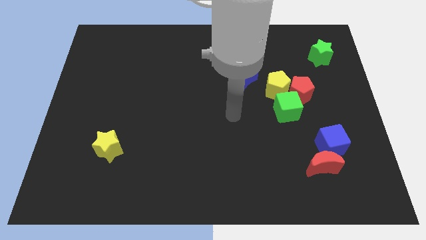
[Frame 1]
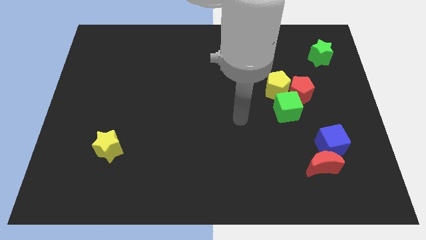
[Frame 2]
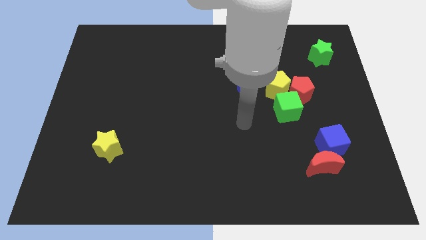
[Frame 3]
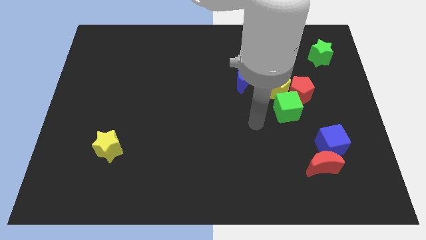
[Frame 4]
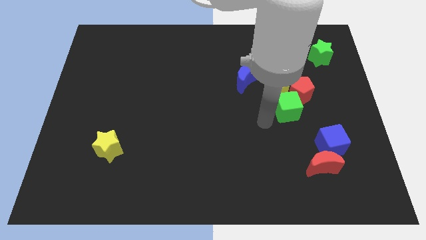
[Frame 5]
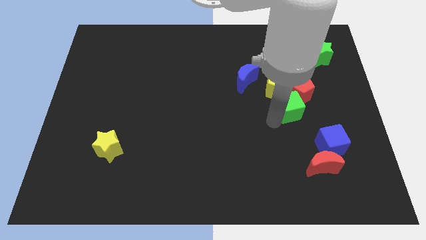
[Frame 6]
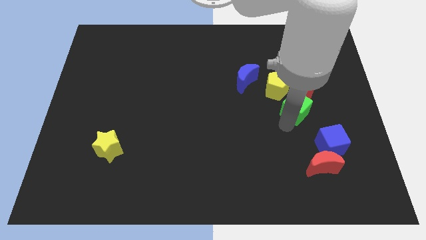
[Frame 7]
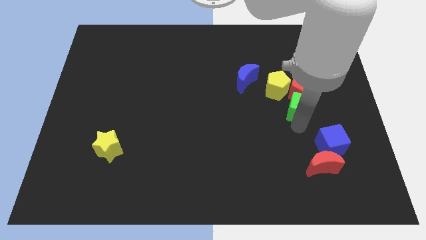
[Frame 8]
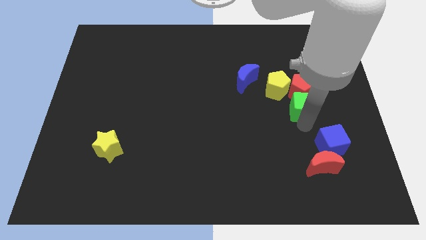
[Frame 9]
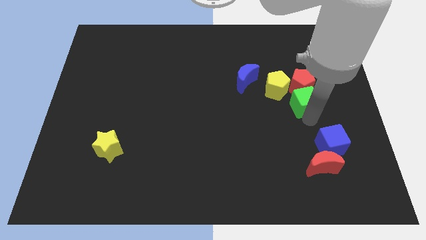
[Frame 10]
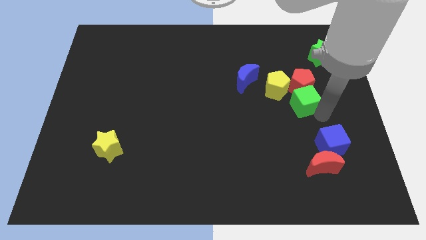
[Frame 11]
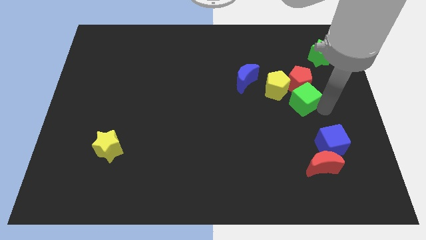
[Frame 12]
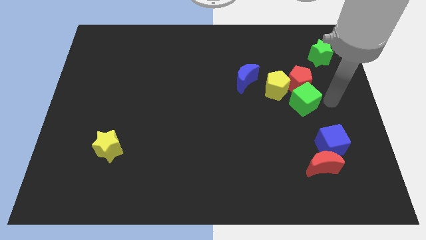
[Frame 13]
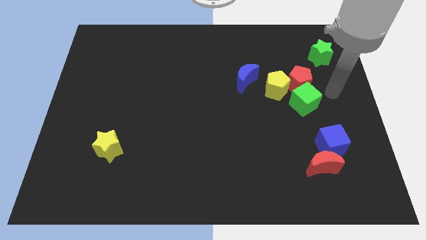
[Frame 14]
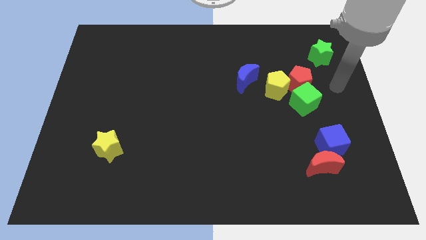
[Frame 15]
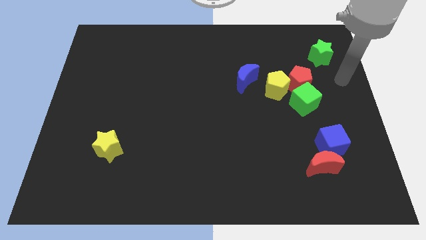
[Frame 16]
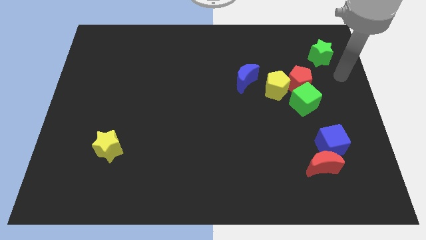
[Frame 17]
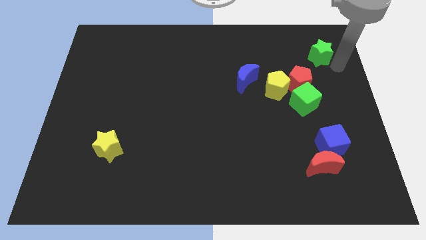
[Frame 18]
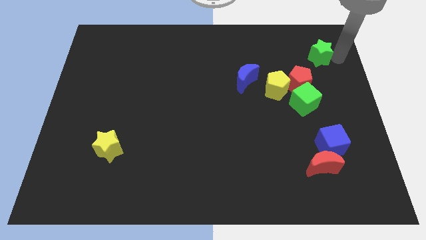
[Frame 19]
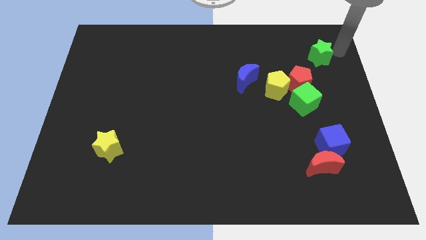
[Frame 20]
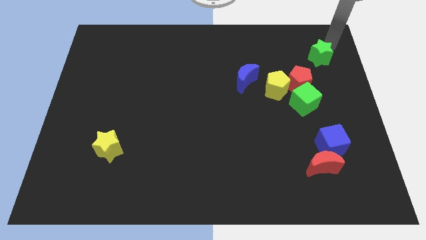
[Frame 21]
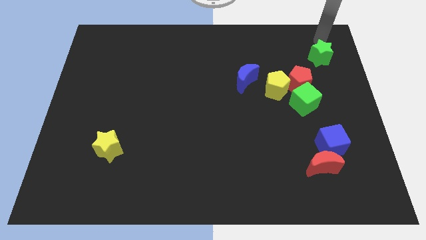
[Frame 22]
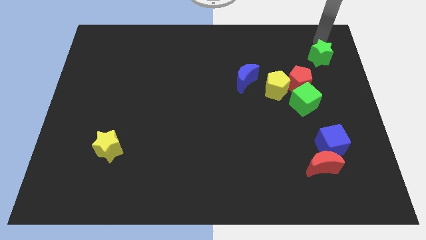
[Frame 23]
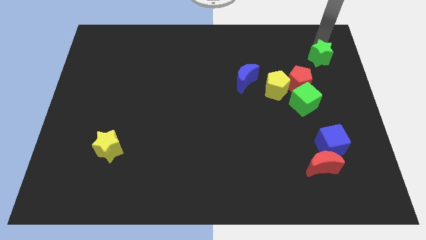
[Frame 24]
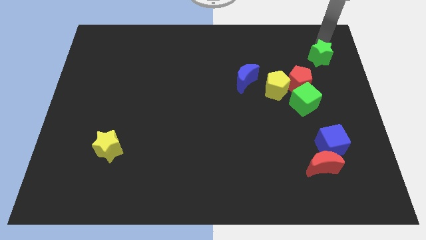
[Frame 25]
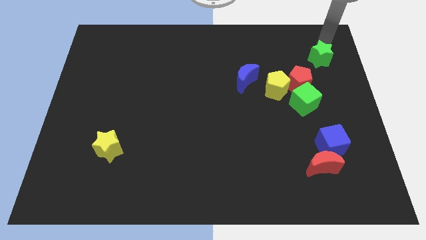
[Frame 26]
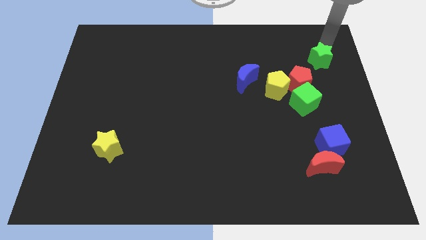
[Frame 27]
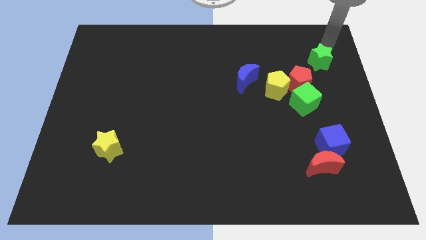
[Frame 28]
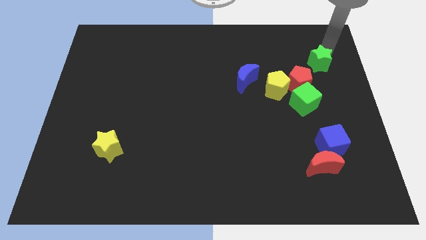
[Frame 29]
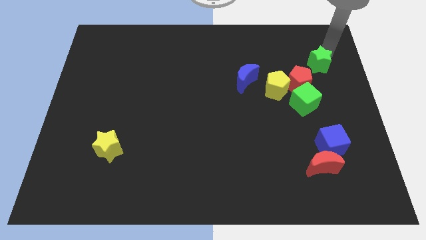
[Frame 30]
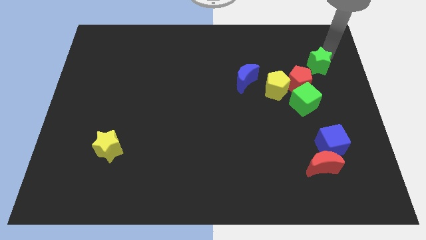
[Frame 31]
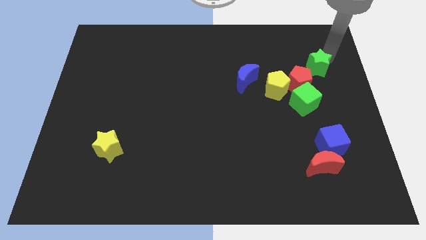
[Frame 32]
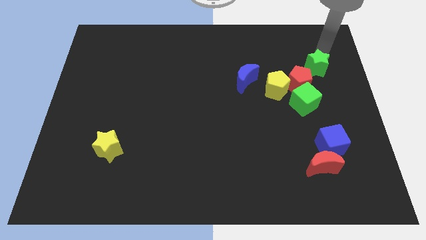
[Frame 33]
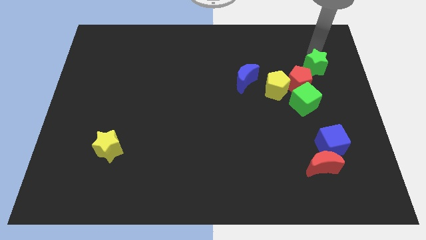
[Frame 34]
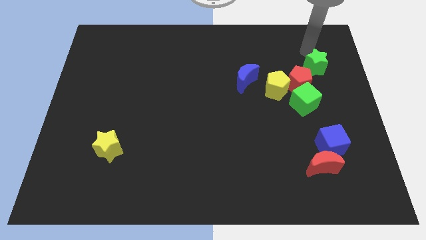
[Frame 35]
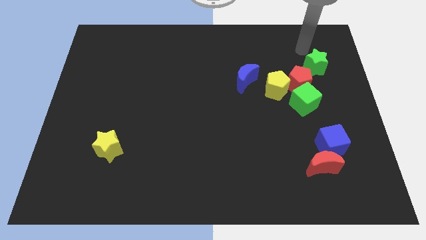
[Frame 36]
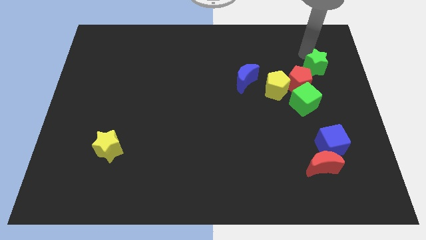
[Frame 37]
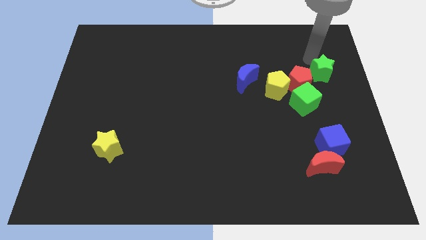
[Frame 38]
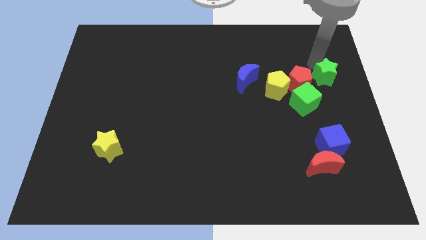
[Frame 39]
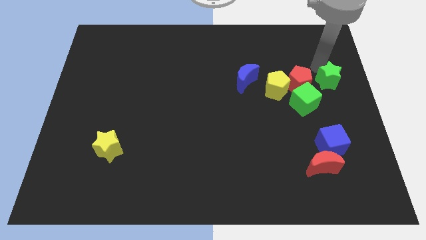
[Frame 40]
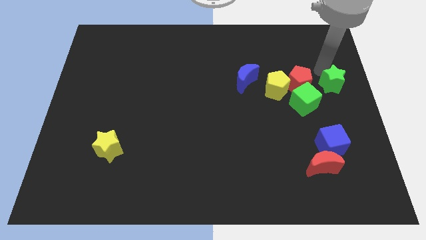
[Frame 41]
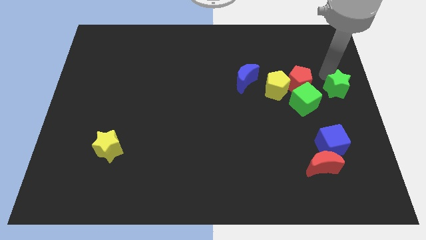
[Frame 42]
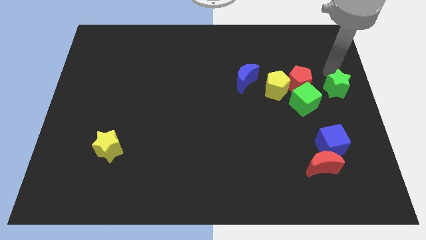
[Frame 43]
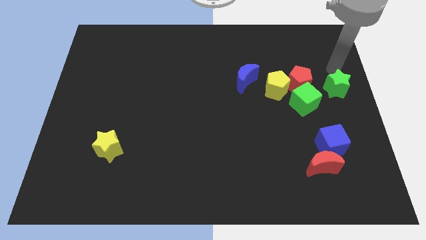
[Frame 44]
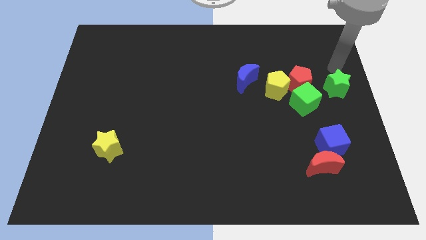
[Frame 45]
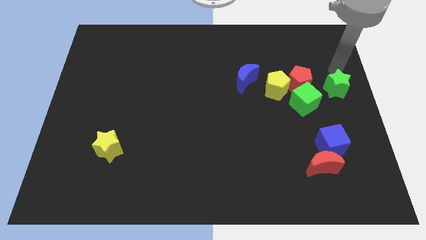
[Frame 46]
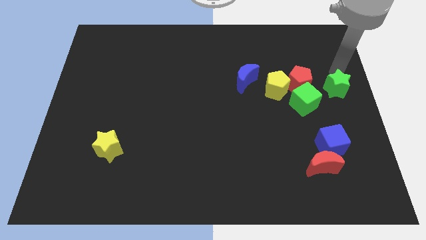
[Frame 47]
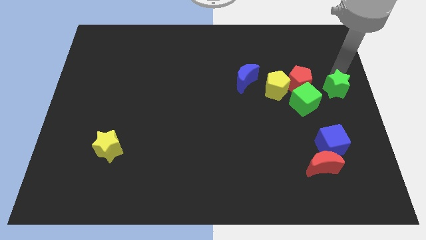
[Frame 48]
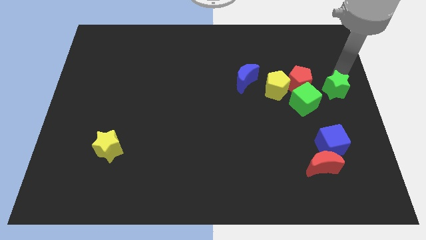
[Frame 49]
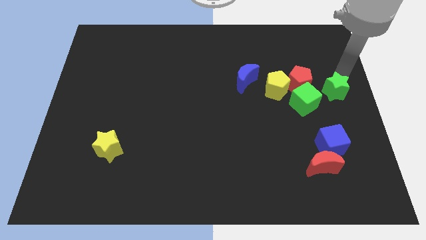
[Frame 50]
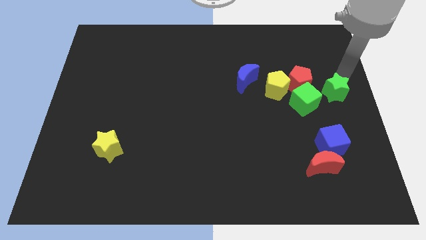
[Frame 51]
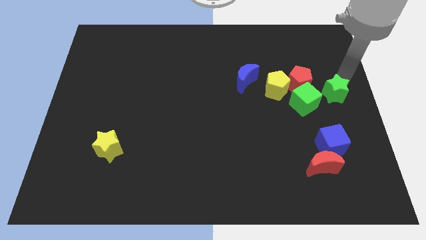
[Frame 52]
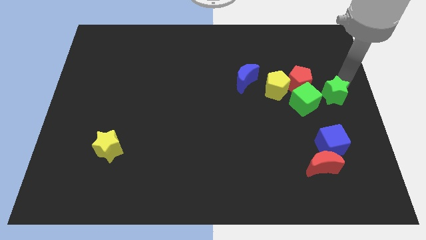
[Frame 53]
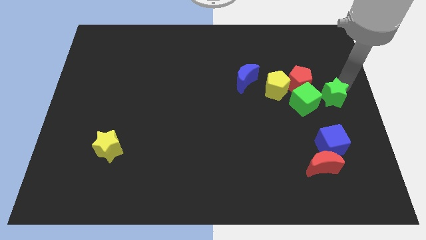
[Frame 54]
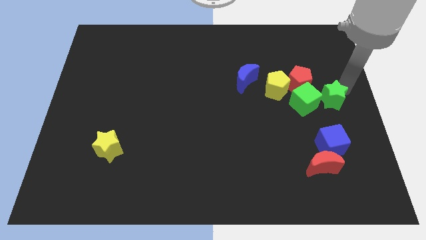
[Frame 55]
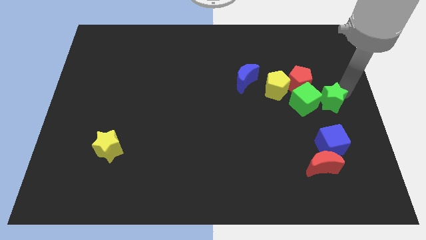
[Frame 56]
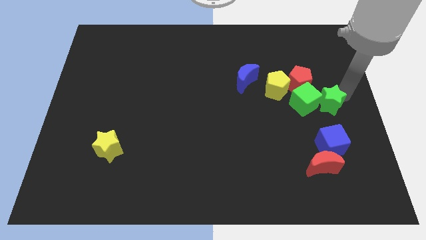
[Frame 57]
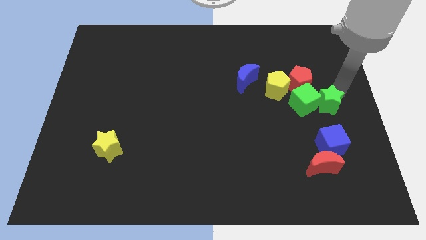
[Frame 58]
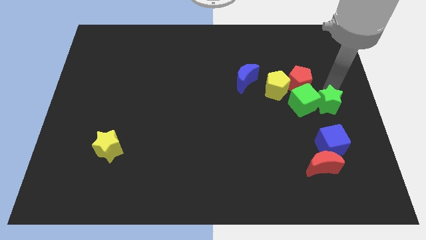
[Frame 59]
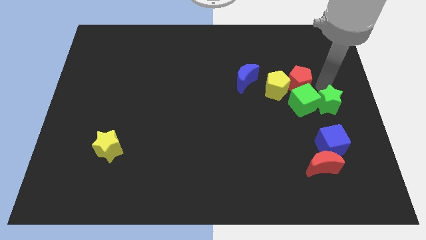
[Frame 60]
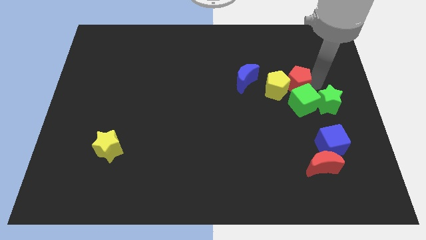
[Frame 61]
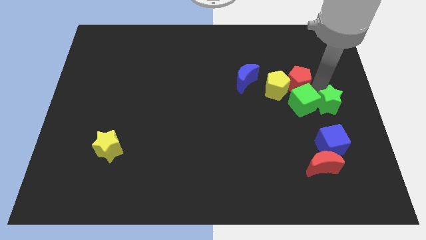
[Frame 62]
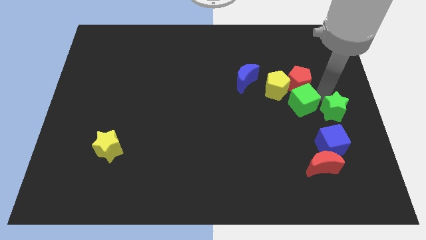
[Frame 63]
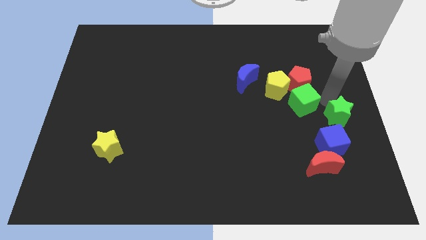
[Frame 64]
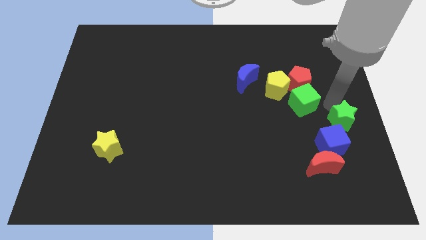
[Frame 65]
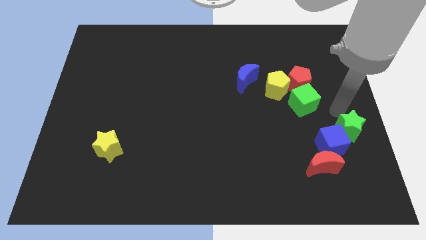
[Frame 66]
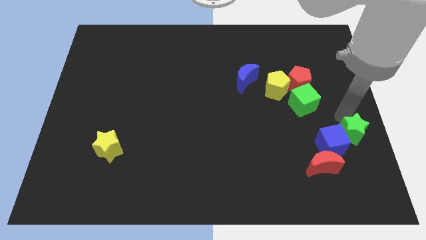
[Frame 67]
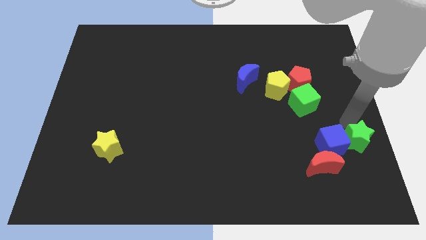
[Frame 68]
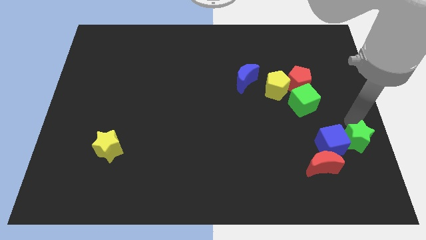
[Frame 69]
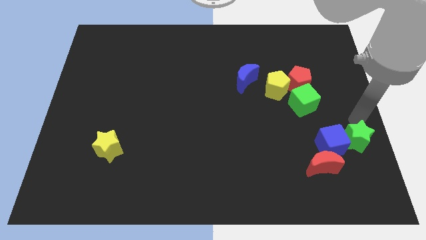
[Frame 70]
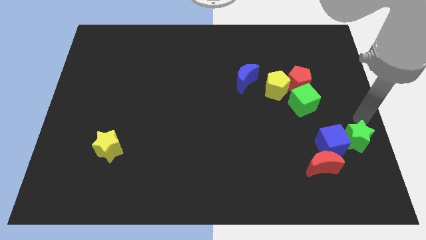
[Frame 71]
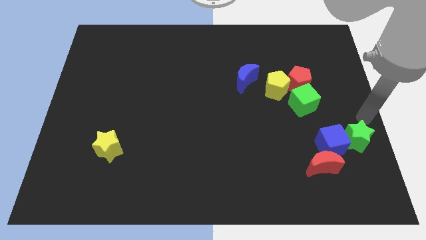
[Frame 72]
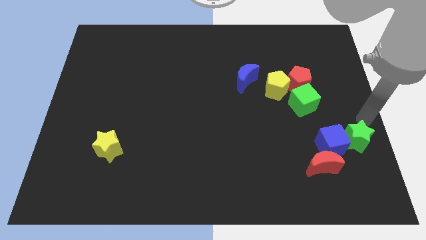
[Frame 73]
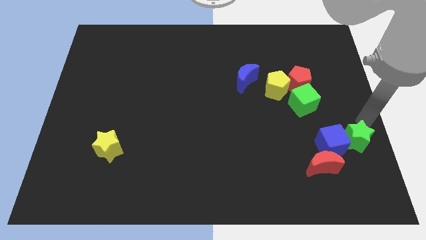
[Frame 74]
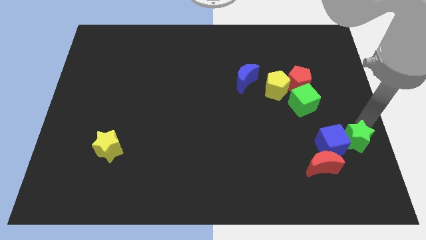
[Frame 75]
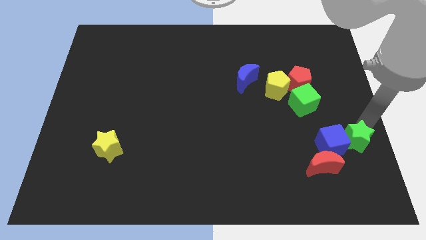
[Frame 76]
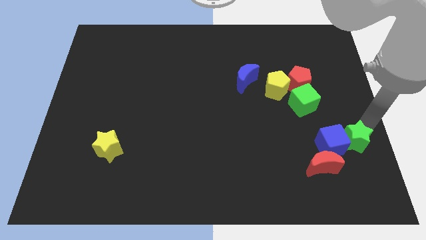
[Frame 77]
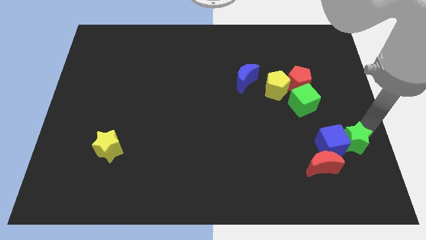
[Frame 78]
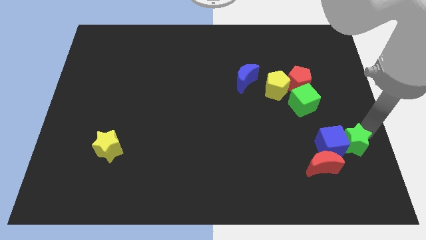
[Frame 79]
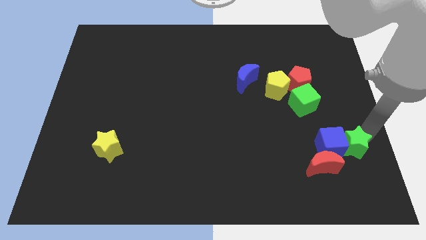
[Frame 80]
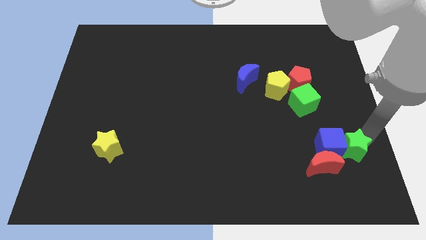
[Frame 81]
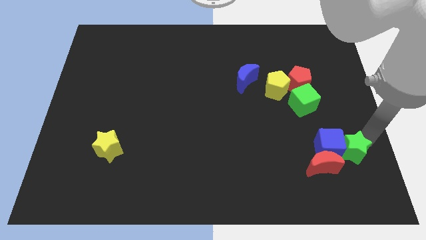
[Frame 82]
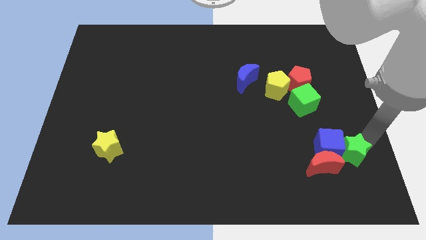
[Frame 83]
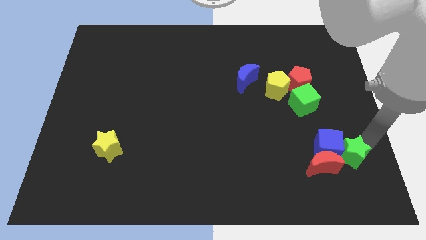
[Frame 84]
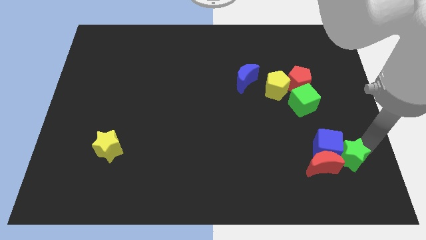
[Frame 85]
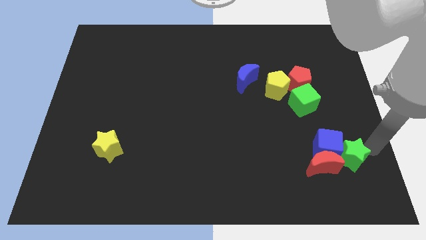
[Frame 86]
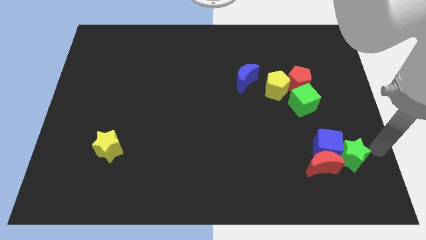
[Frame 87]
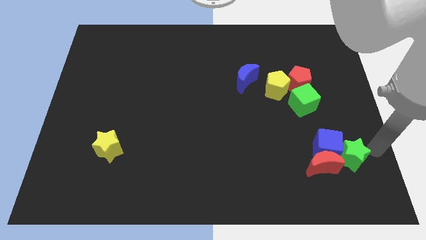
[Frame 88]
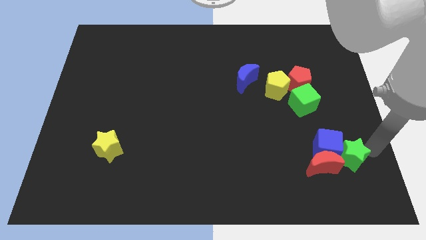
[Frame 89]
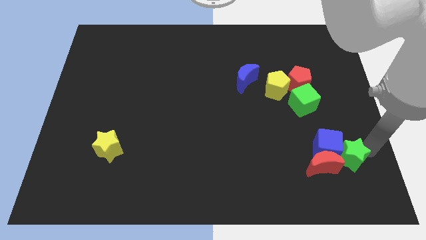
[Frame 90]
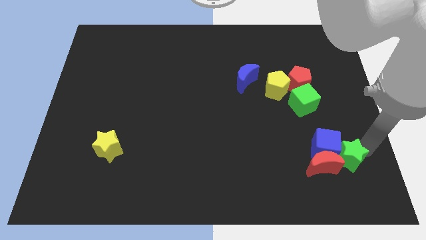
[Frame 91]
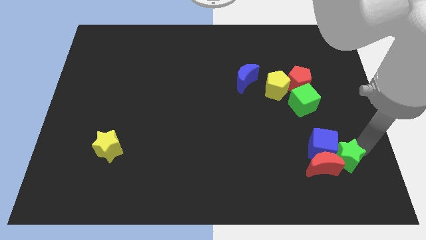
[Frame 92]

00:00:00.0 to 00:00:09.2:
move the green star close to the red moon
